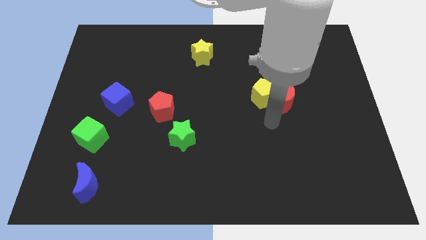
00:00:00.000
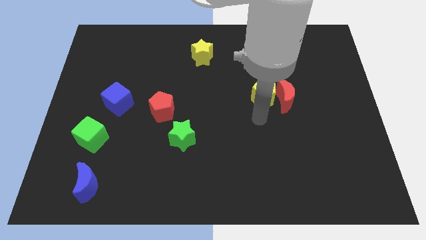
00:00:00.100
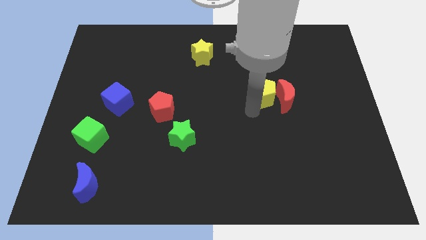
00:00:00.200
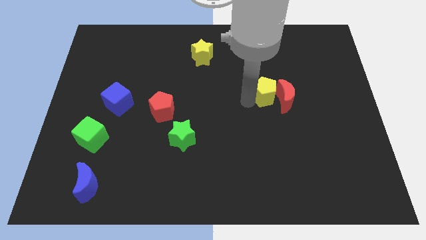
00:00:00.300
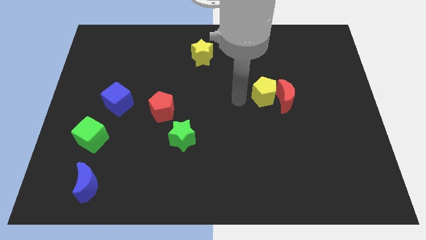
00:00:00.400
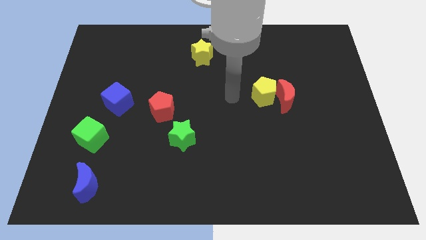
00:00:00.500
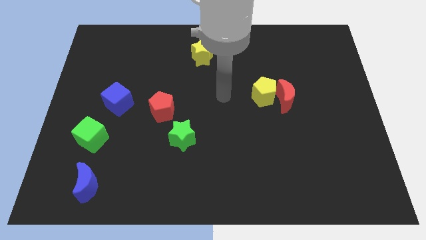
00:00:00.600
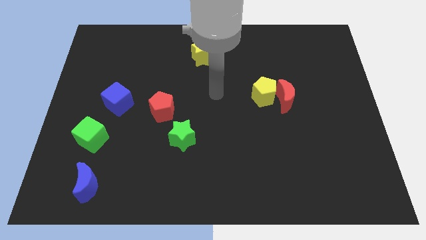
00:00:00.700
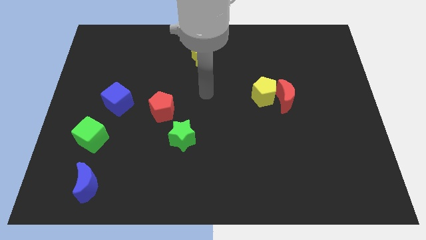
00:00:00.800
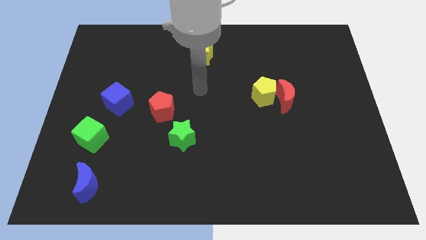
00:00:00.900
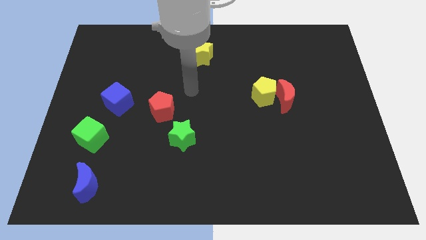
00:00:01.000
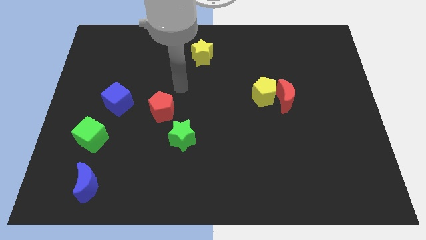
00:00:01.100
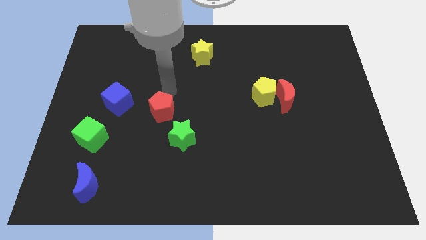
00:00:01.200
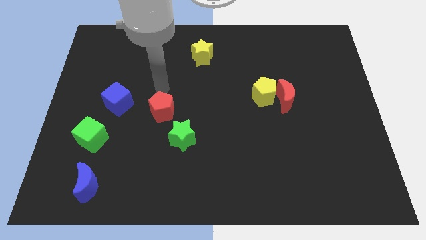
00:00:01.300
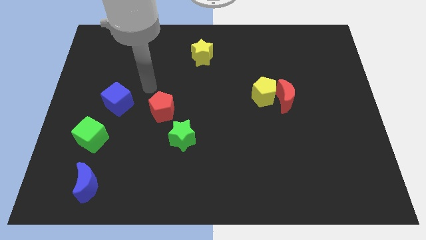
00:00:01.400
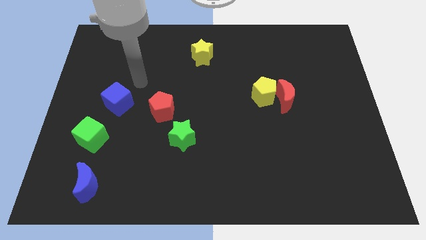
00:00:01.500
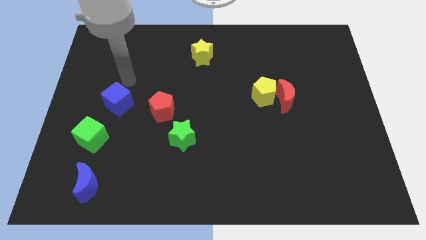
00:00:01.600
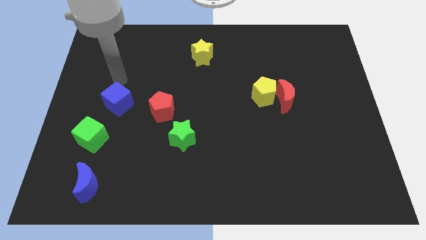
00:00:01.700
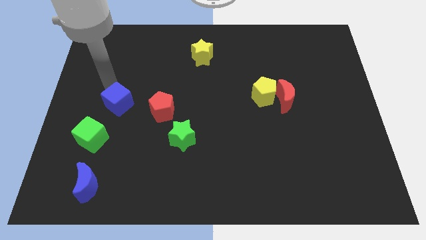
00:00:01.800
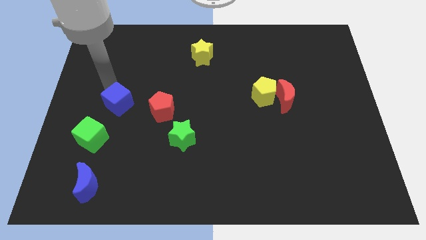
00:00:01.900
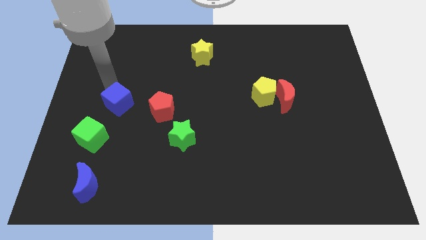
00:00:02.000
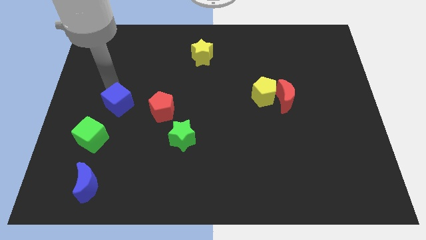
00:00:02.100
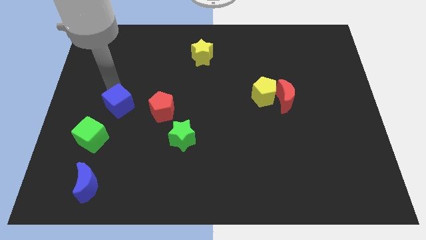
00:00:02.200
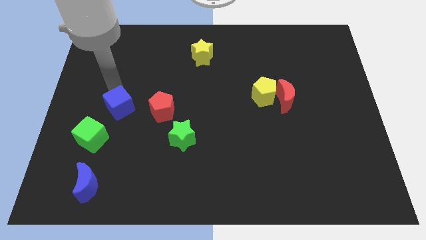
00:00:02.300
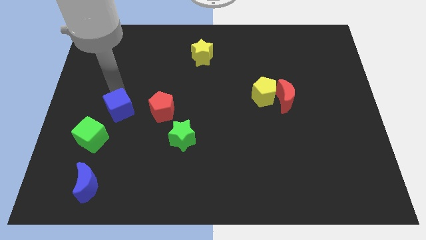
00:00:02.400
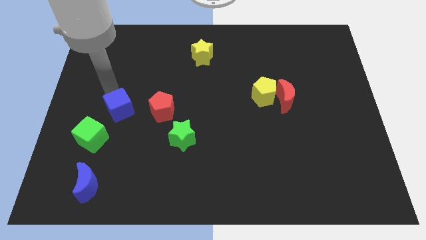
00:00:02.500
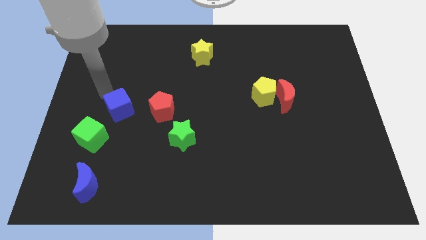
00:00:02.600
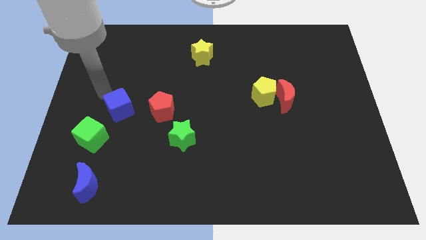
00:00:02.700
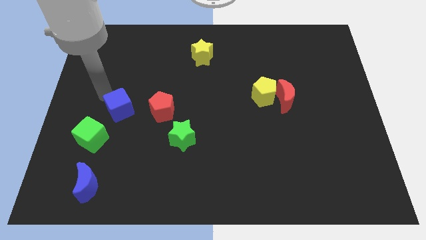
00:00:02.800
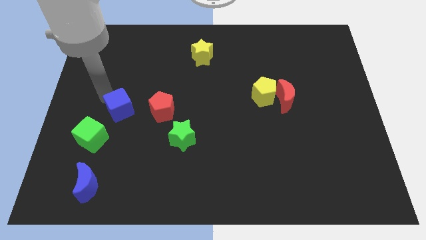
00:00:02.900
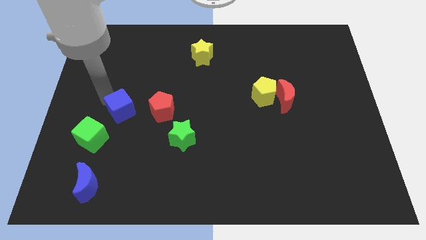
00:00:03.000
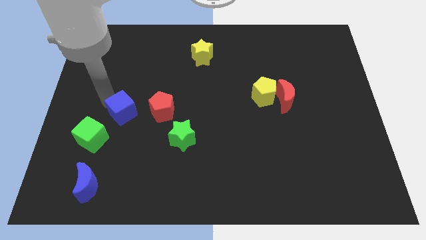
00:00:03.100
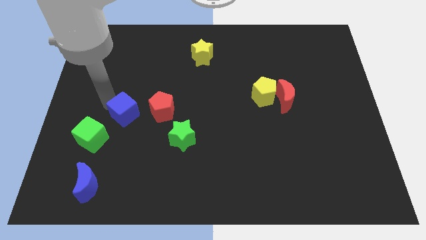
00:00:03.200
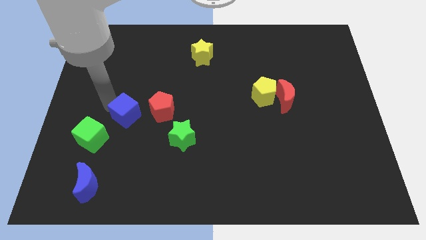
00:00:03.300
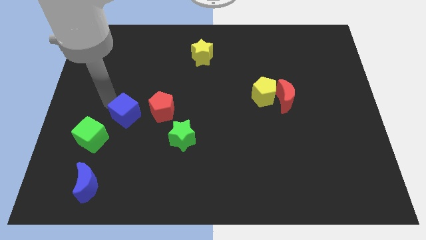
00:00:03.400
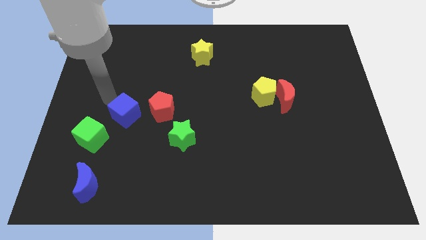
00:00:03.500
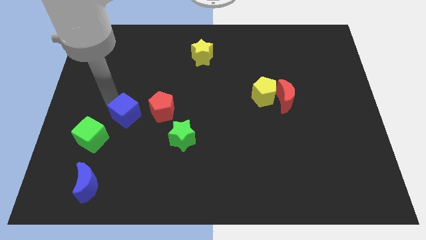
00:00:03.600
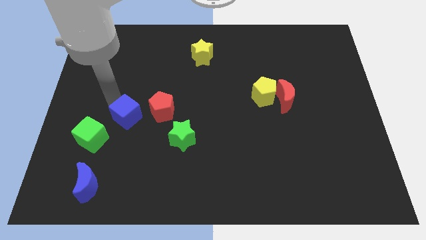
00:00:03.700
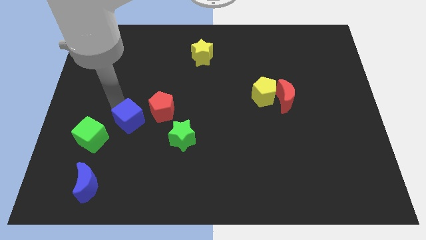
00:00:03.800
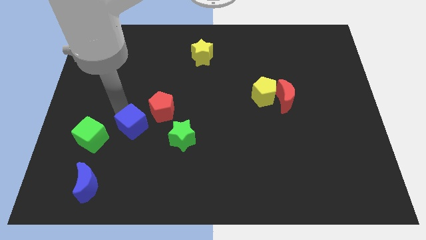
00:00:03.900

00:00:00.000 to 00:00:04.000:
move the blue cube downwards and to the right diagonally a little bit

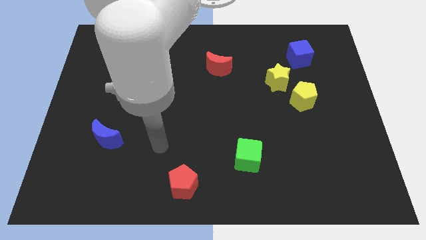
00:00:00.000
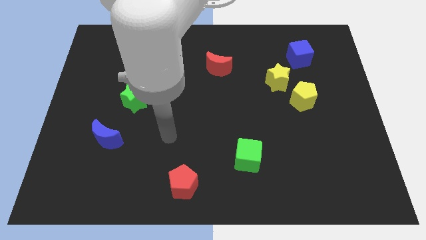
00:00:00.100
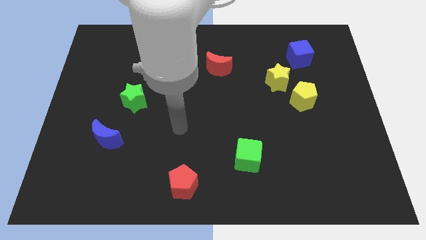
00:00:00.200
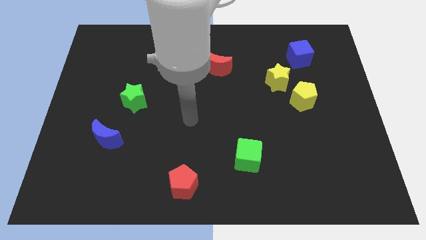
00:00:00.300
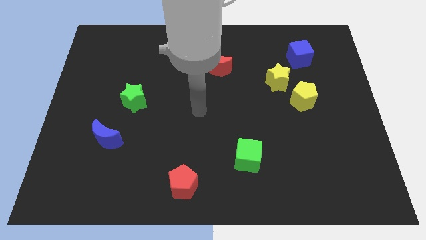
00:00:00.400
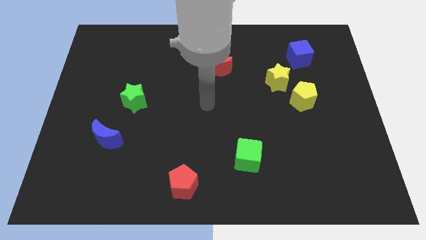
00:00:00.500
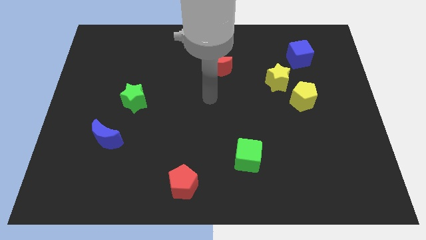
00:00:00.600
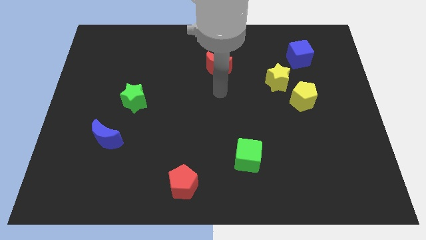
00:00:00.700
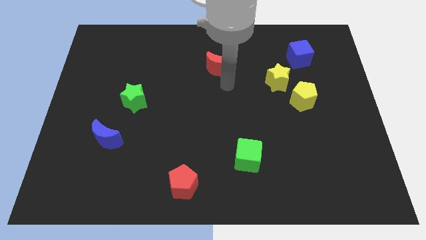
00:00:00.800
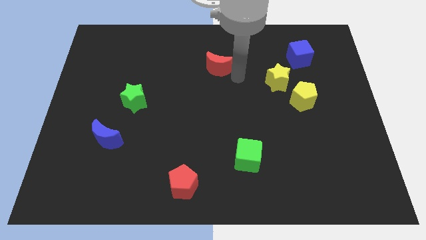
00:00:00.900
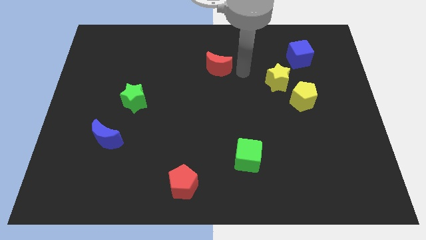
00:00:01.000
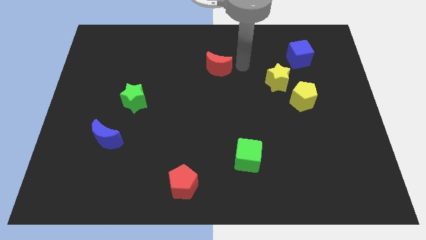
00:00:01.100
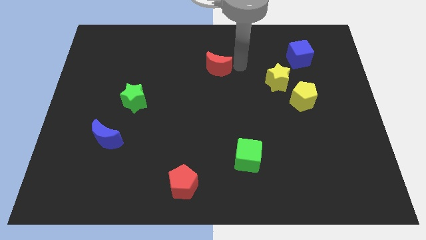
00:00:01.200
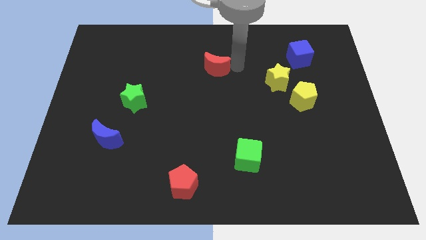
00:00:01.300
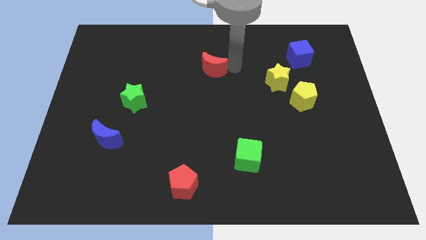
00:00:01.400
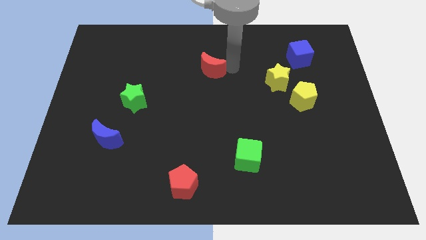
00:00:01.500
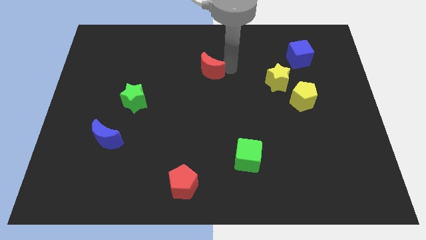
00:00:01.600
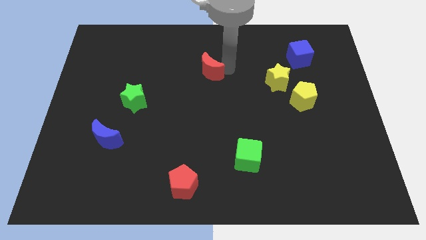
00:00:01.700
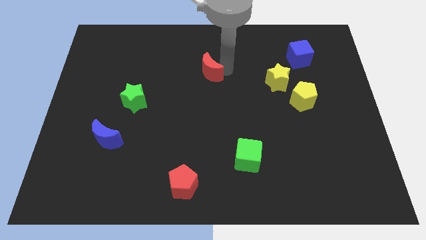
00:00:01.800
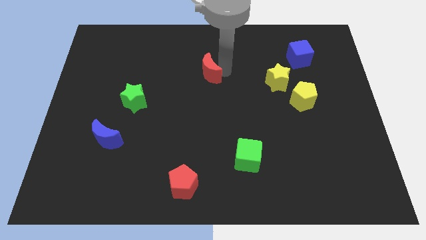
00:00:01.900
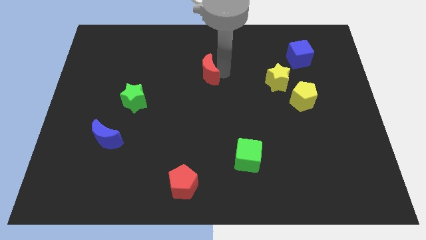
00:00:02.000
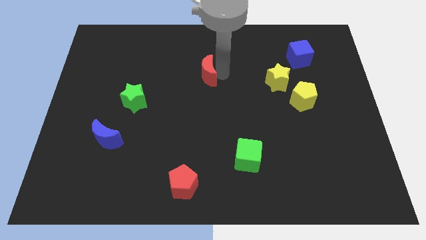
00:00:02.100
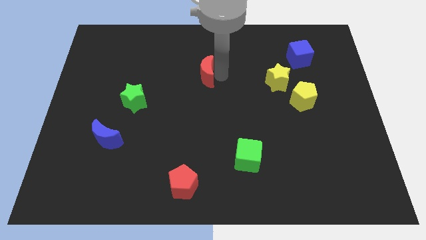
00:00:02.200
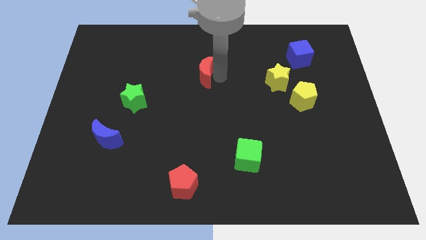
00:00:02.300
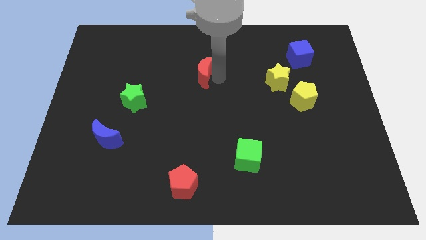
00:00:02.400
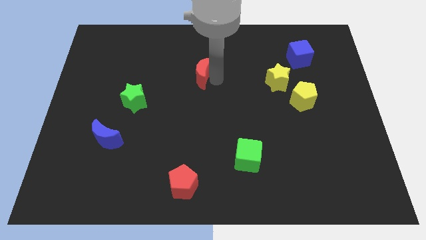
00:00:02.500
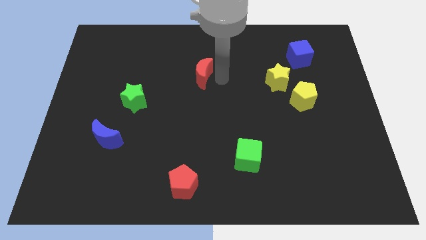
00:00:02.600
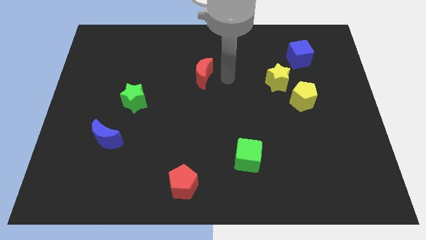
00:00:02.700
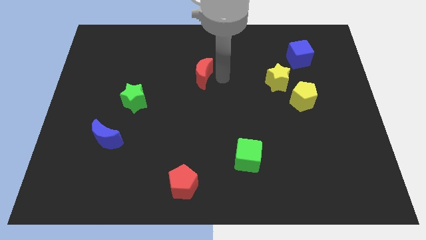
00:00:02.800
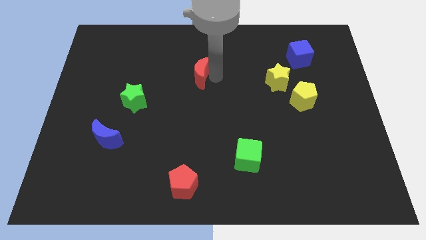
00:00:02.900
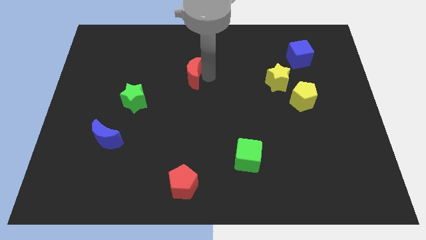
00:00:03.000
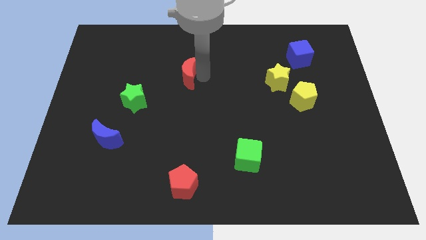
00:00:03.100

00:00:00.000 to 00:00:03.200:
slide the red moon left a bit

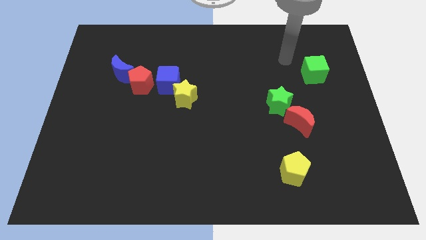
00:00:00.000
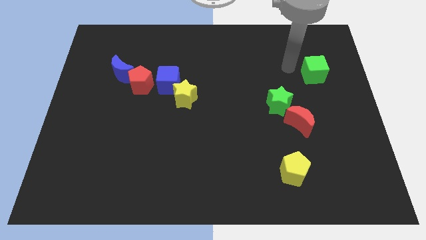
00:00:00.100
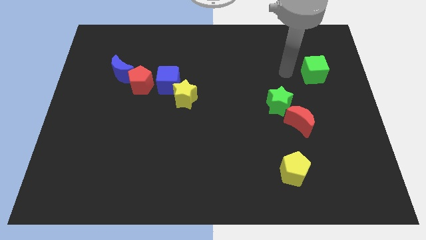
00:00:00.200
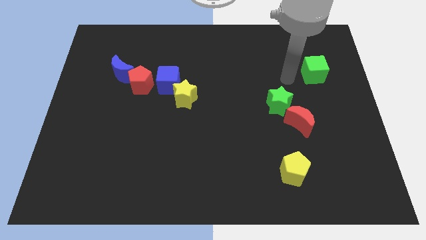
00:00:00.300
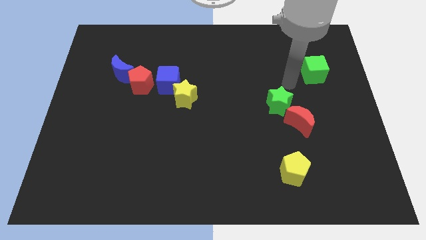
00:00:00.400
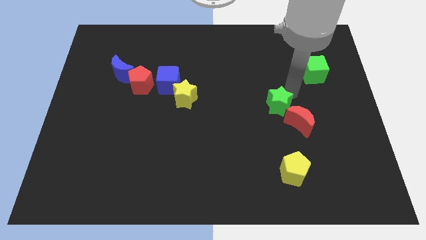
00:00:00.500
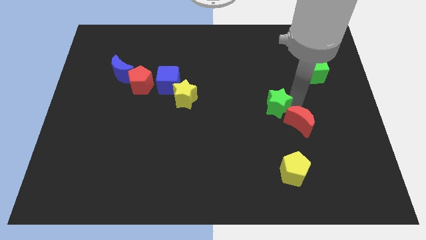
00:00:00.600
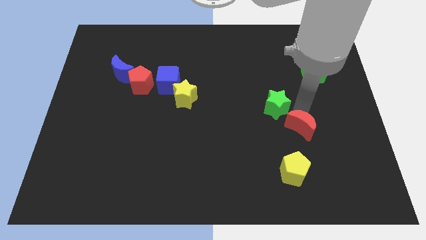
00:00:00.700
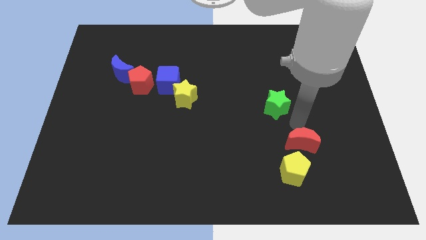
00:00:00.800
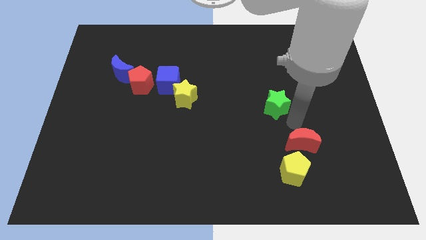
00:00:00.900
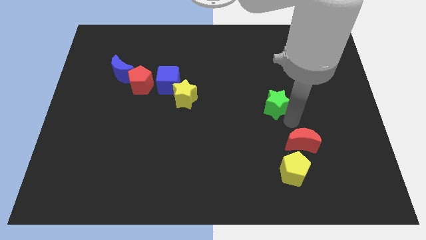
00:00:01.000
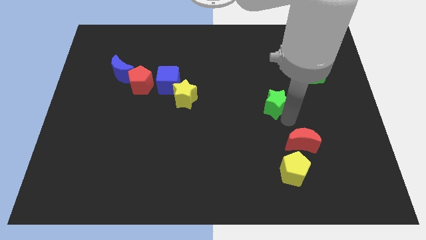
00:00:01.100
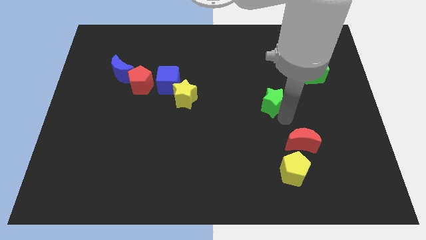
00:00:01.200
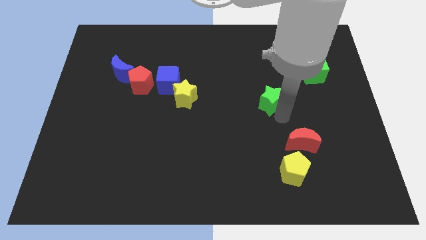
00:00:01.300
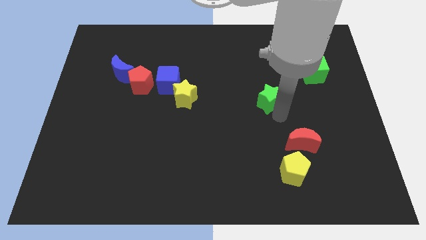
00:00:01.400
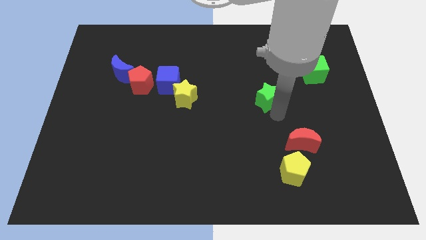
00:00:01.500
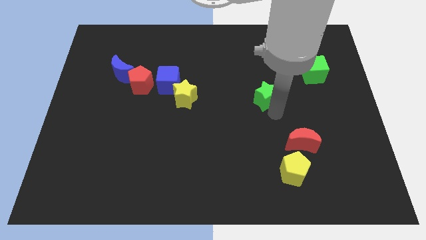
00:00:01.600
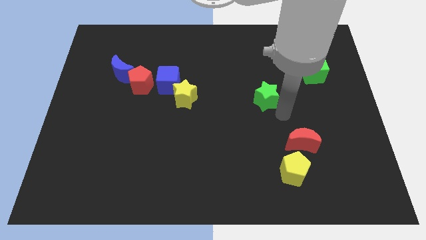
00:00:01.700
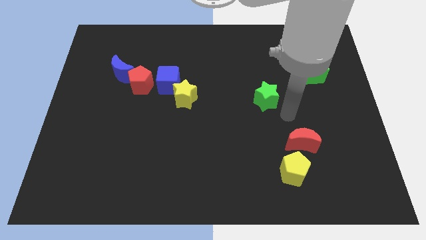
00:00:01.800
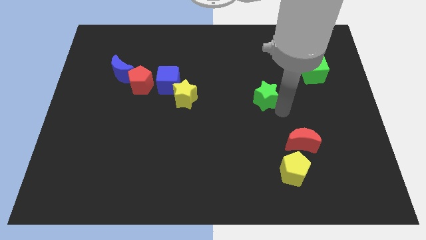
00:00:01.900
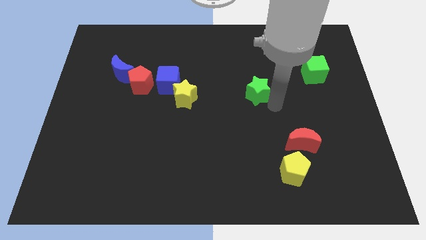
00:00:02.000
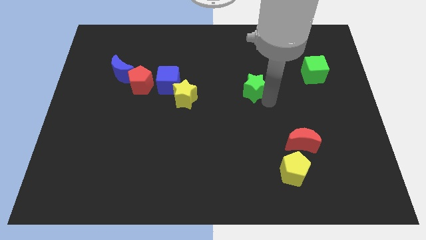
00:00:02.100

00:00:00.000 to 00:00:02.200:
push the green star upwards and to the left a bit
